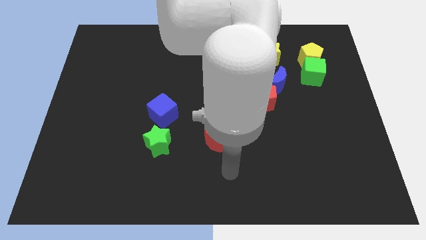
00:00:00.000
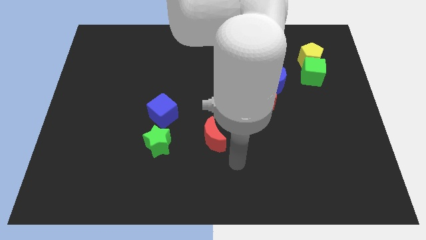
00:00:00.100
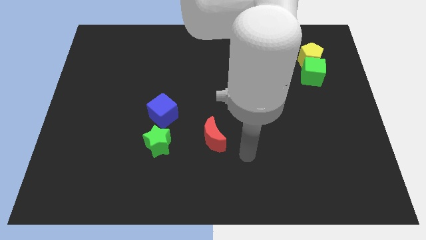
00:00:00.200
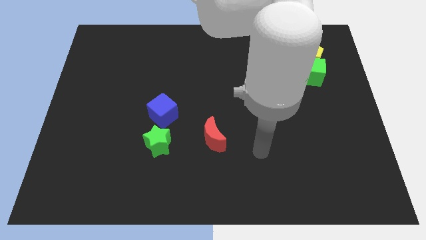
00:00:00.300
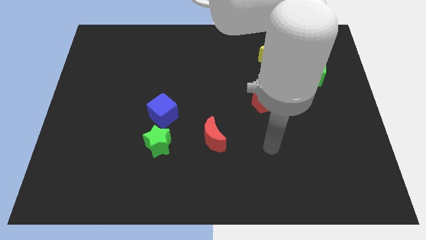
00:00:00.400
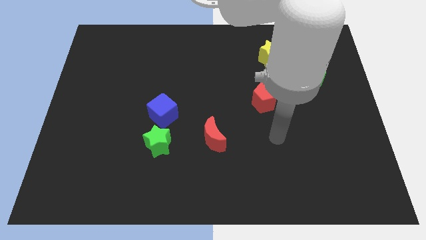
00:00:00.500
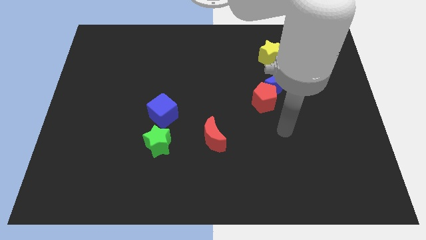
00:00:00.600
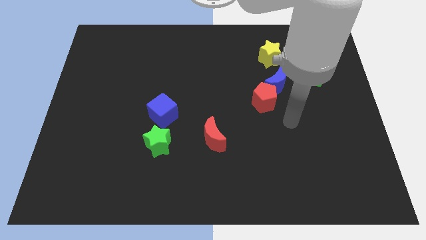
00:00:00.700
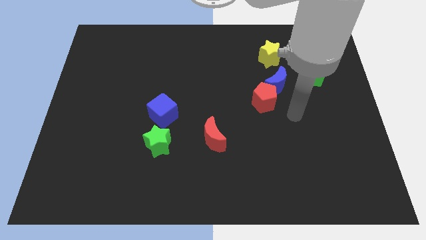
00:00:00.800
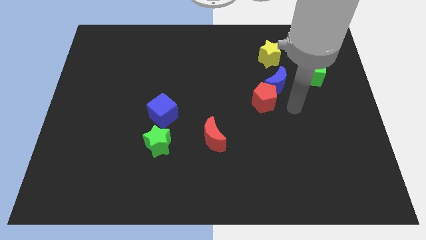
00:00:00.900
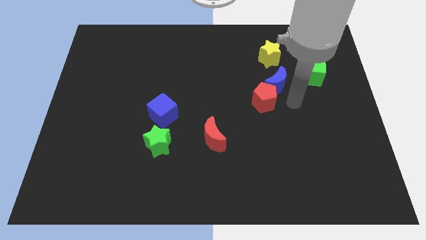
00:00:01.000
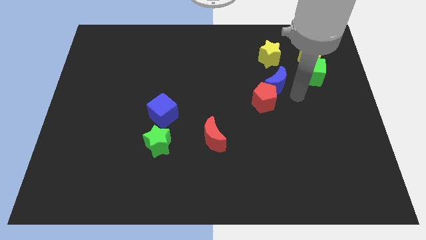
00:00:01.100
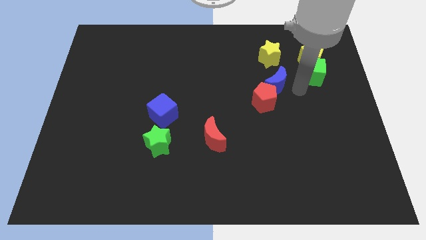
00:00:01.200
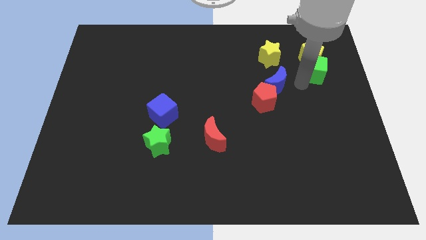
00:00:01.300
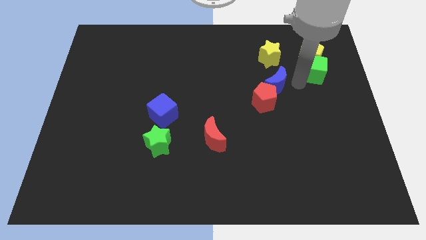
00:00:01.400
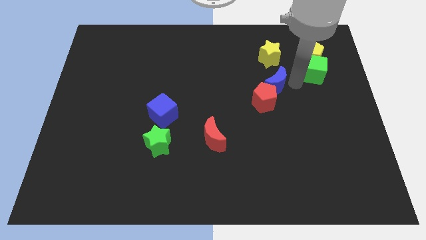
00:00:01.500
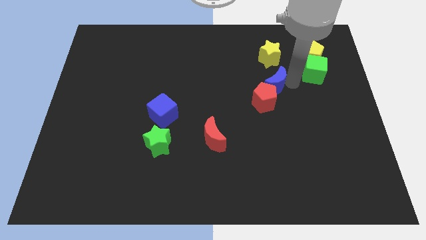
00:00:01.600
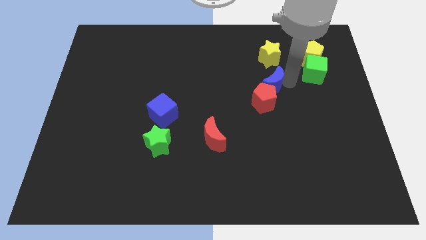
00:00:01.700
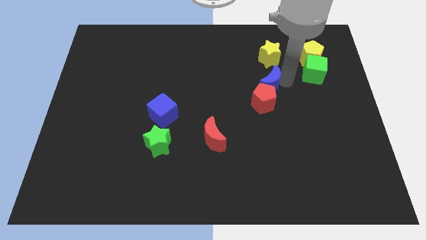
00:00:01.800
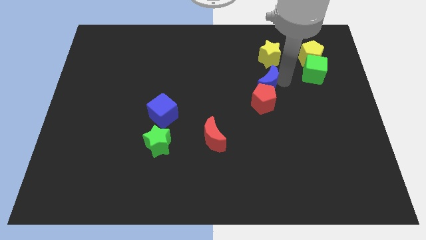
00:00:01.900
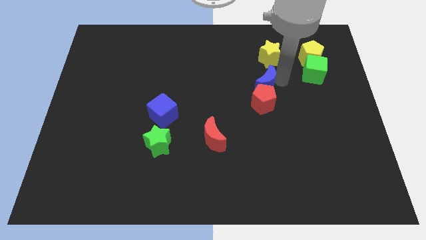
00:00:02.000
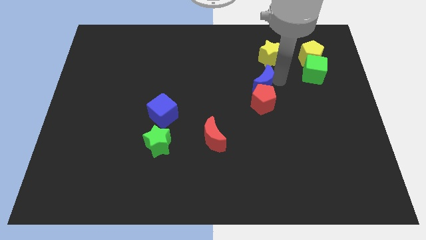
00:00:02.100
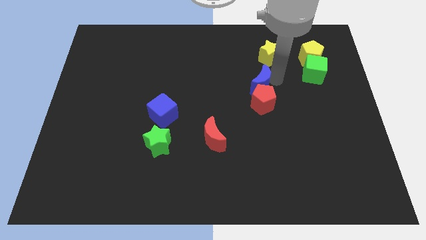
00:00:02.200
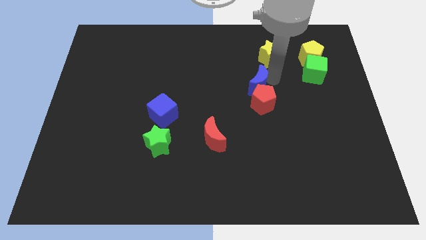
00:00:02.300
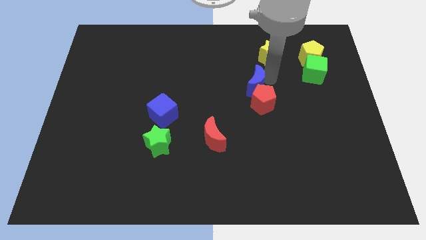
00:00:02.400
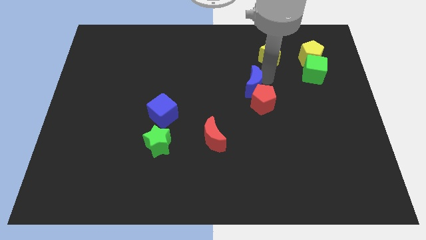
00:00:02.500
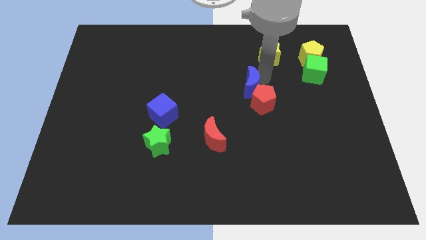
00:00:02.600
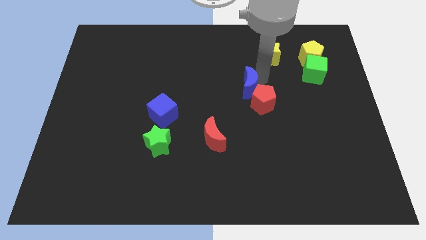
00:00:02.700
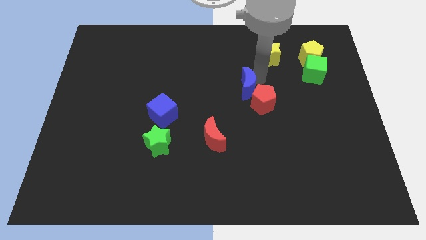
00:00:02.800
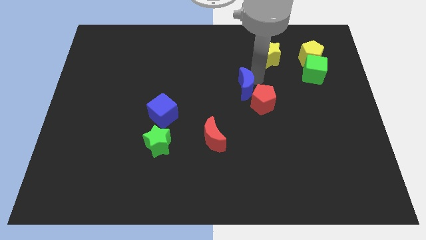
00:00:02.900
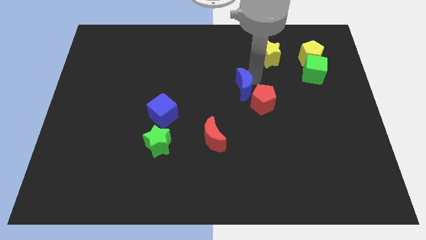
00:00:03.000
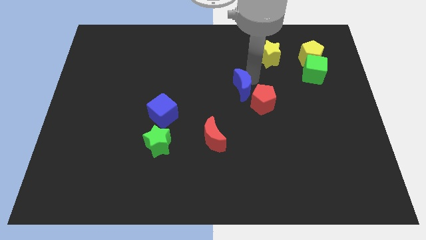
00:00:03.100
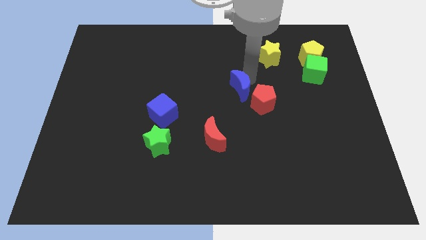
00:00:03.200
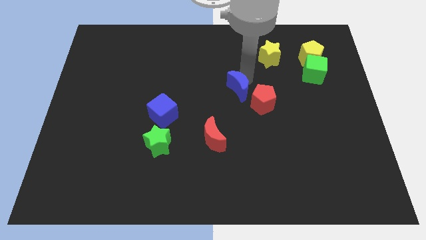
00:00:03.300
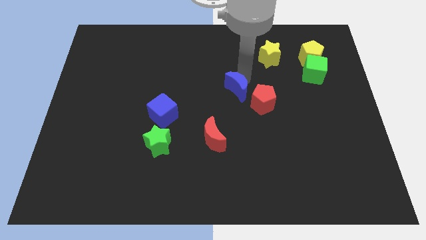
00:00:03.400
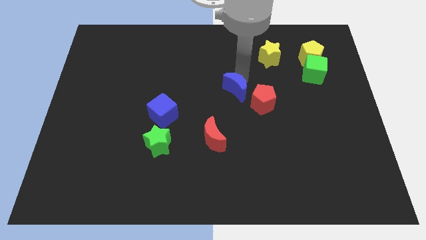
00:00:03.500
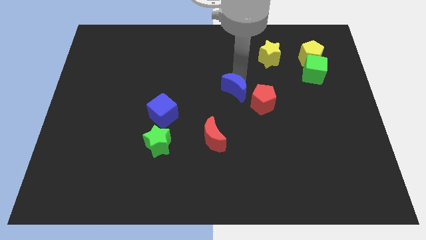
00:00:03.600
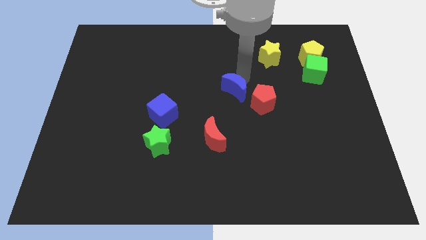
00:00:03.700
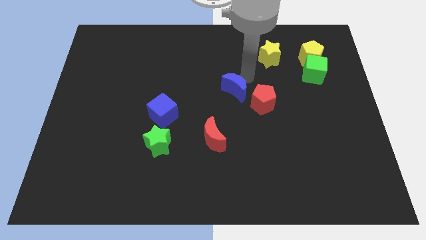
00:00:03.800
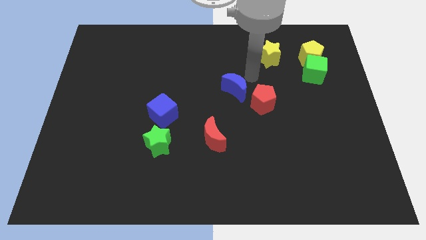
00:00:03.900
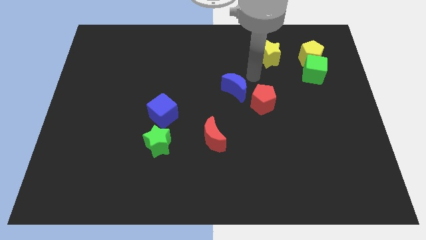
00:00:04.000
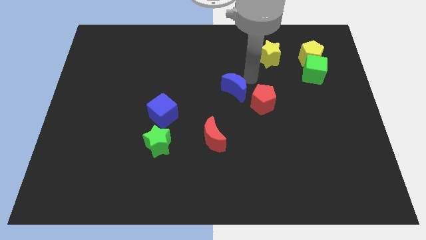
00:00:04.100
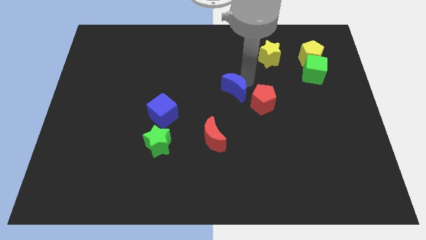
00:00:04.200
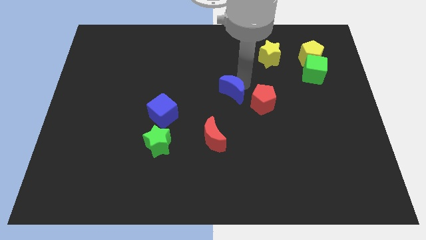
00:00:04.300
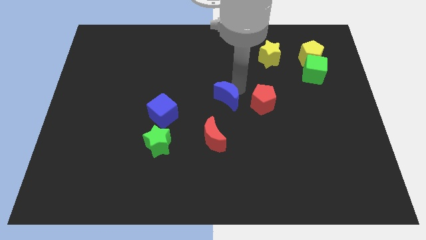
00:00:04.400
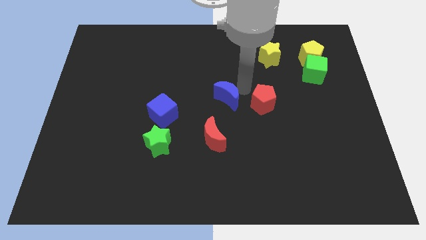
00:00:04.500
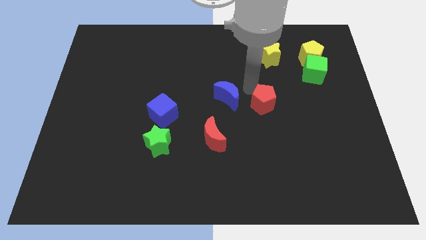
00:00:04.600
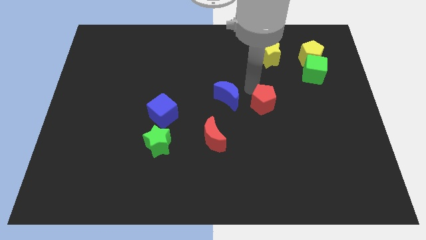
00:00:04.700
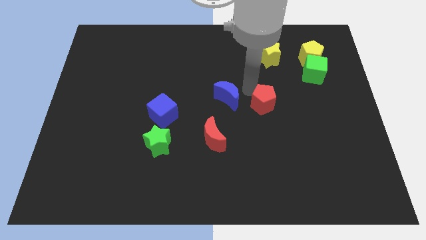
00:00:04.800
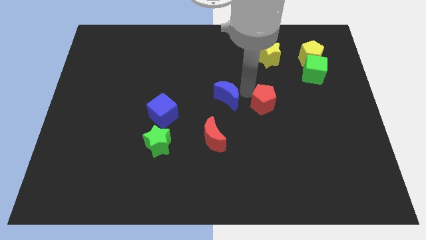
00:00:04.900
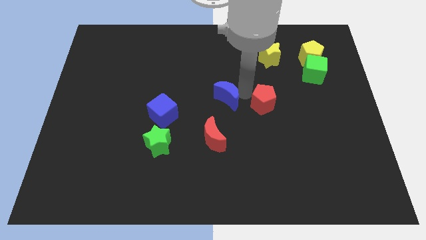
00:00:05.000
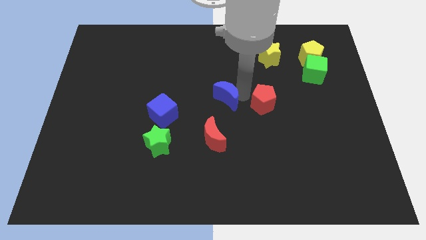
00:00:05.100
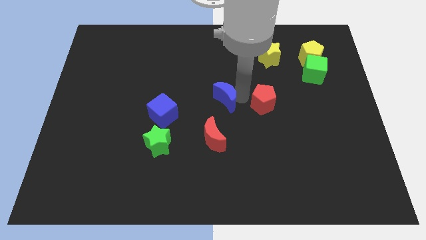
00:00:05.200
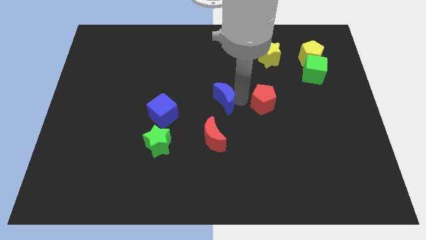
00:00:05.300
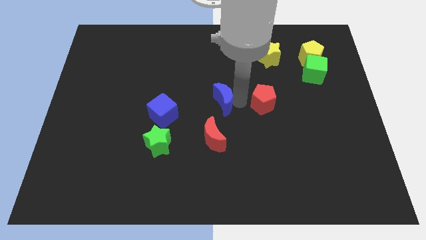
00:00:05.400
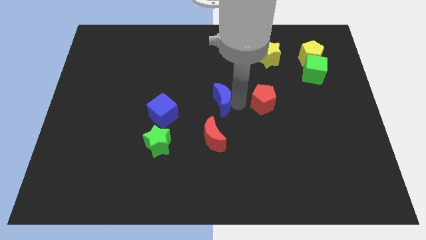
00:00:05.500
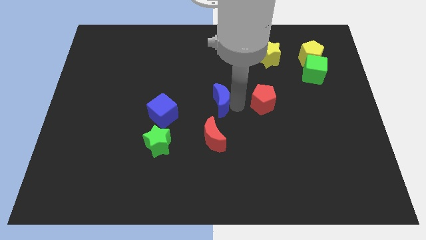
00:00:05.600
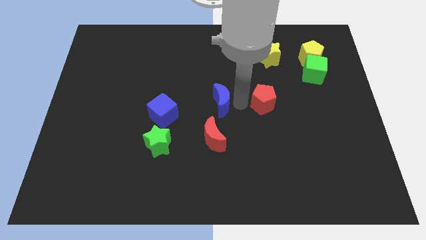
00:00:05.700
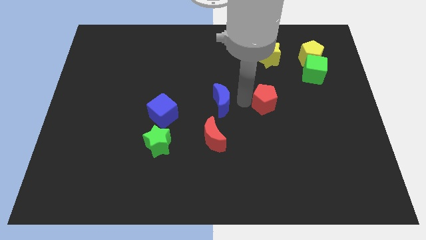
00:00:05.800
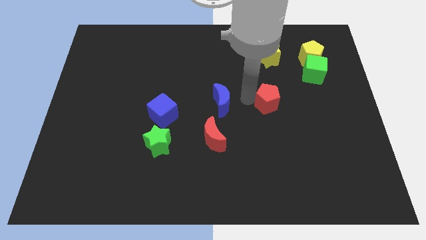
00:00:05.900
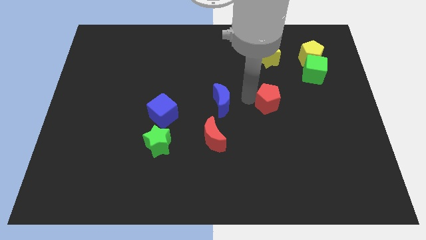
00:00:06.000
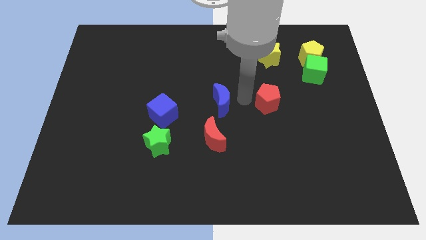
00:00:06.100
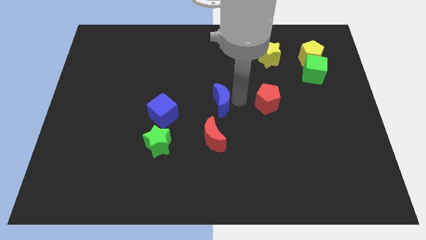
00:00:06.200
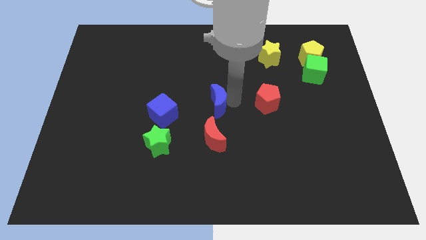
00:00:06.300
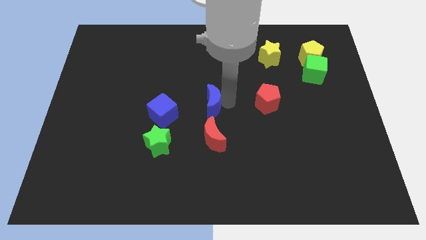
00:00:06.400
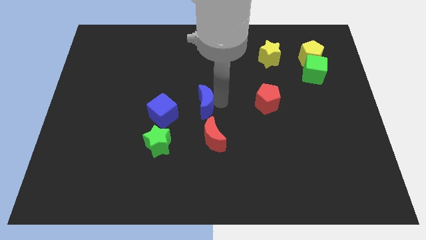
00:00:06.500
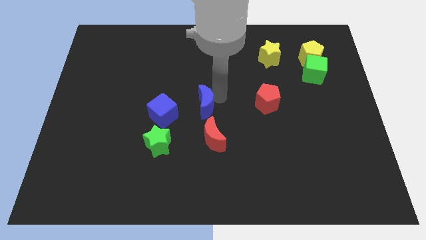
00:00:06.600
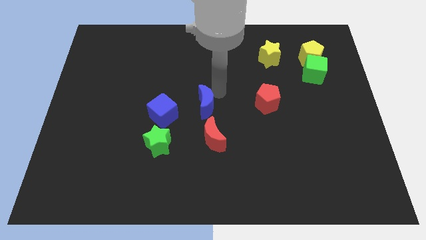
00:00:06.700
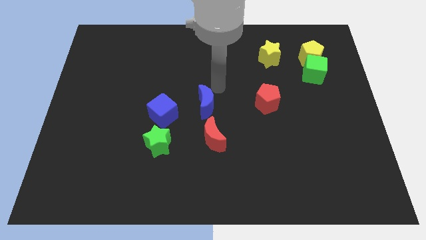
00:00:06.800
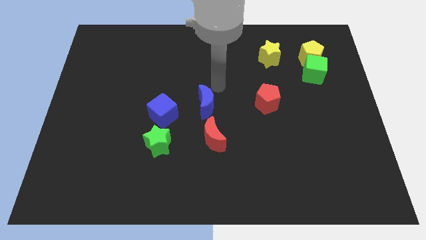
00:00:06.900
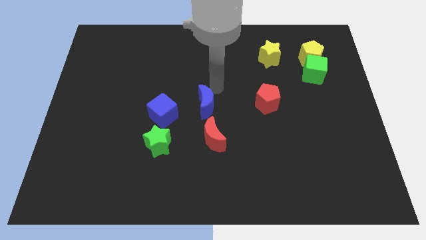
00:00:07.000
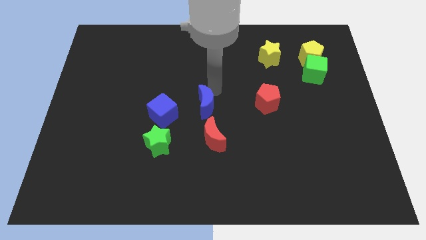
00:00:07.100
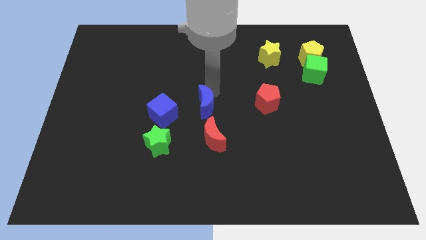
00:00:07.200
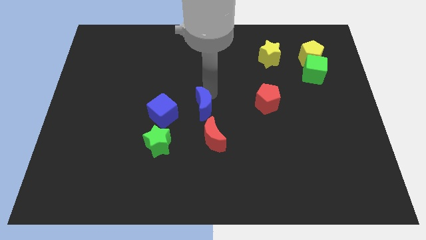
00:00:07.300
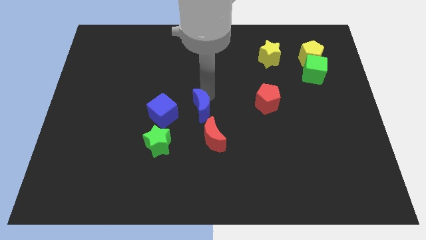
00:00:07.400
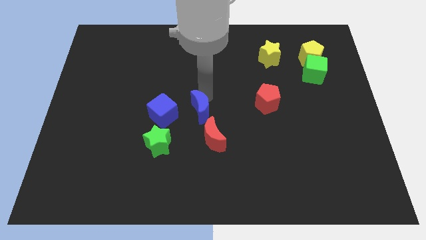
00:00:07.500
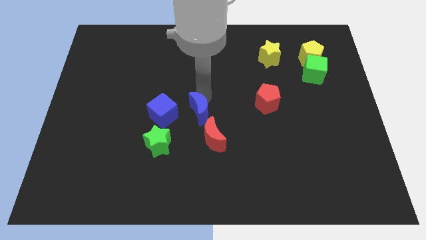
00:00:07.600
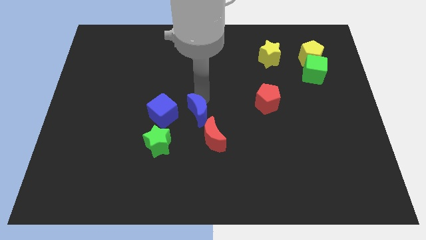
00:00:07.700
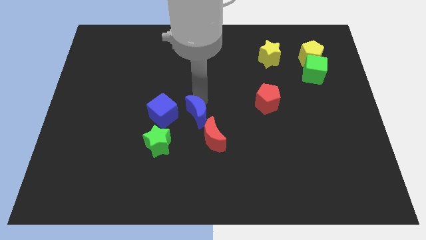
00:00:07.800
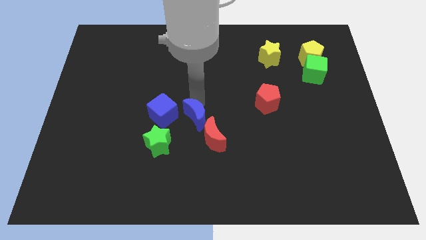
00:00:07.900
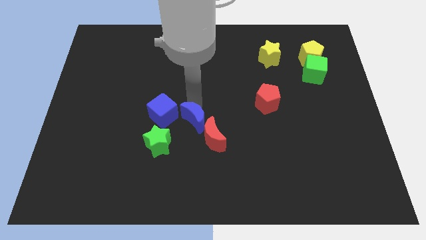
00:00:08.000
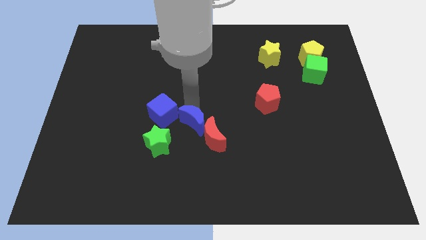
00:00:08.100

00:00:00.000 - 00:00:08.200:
push the blue moon diagonally downwards and left
